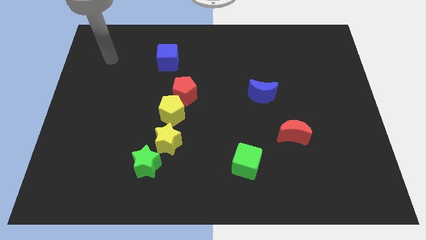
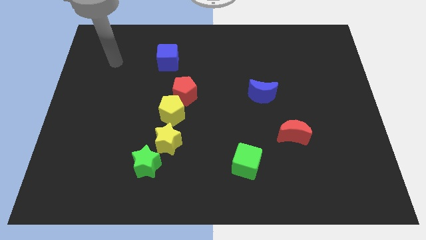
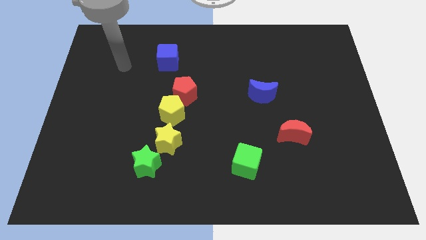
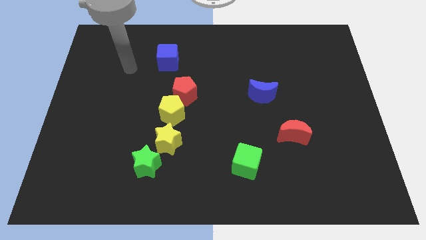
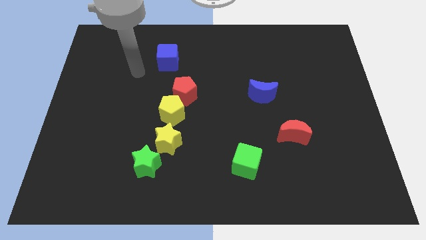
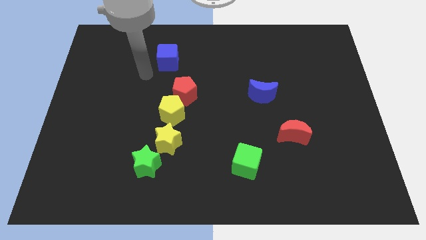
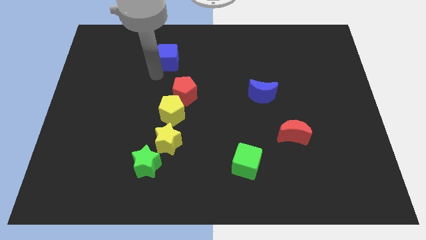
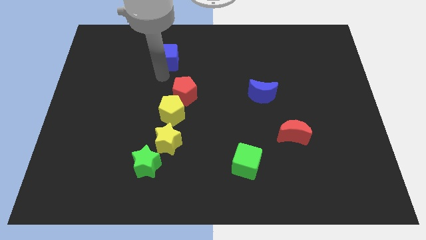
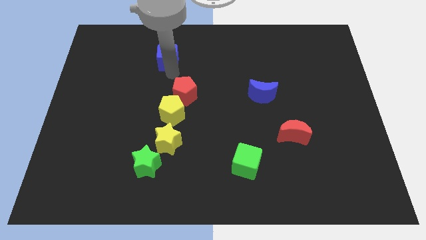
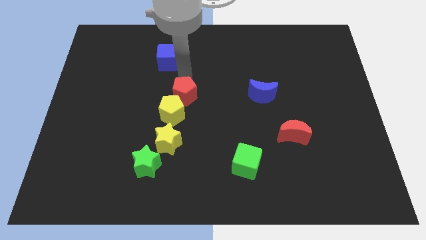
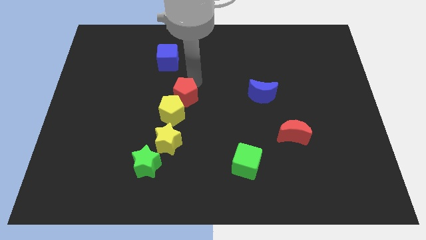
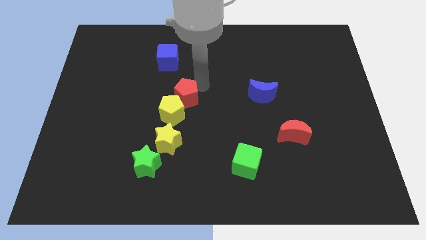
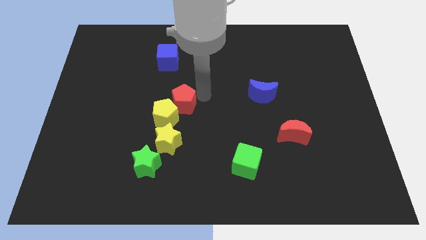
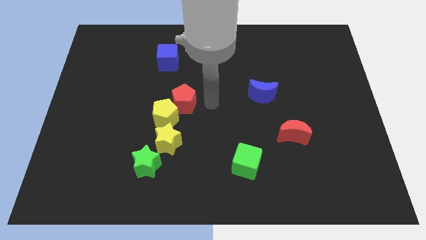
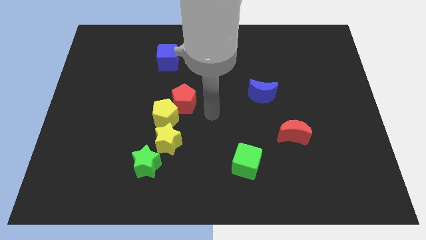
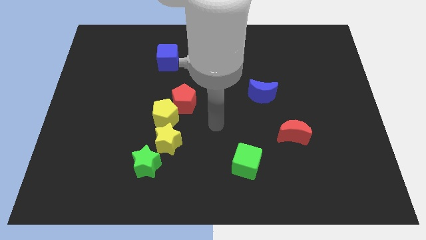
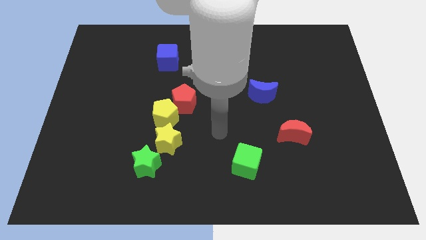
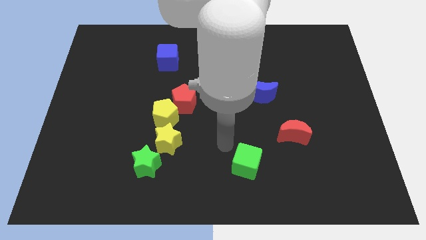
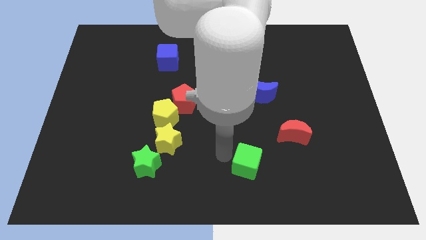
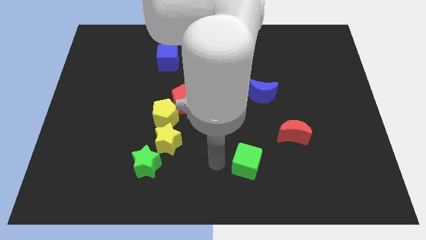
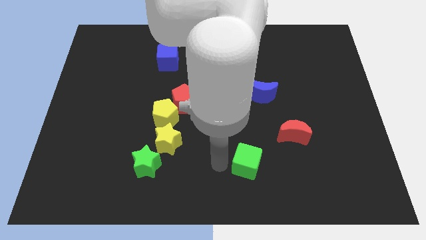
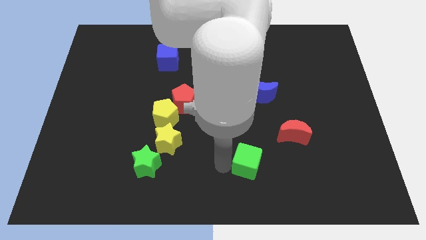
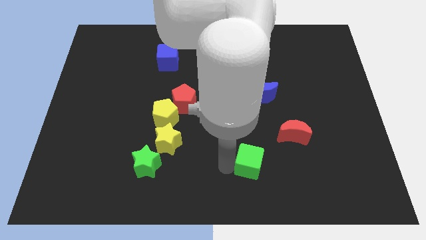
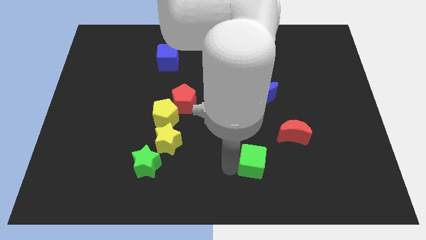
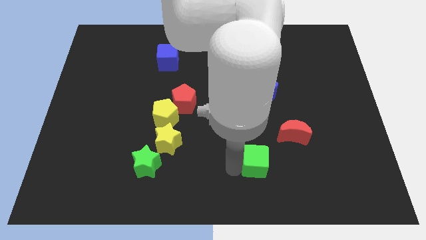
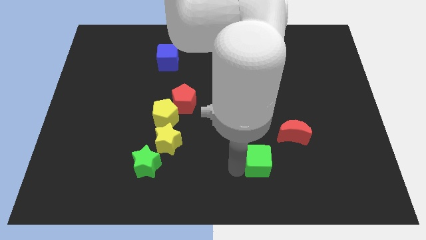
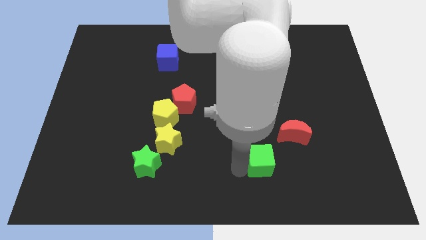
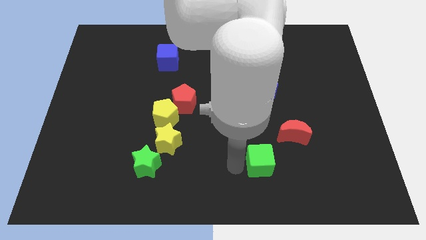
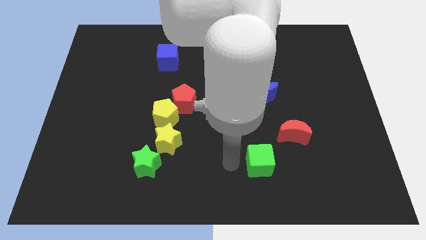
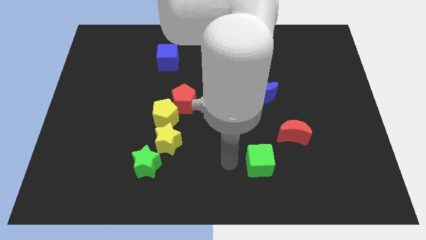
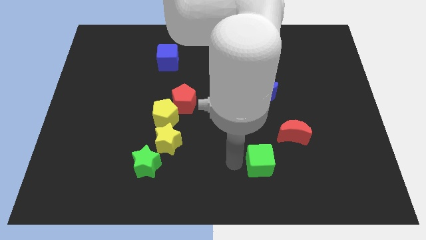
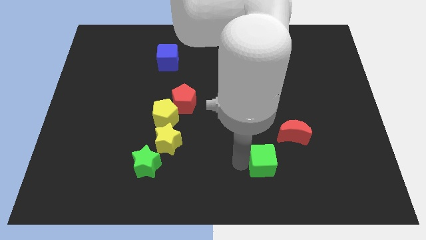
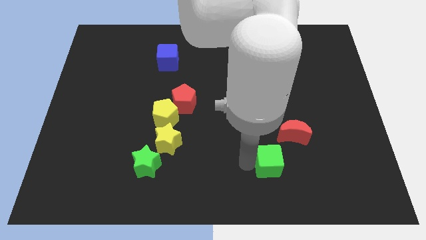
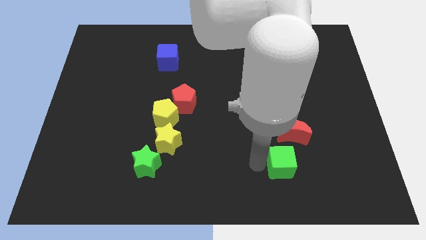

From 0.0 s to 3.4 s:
slightly push the green cube right

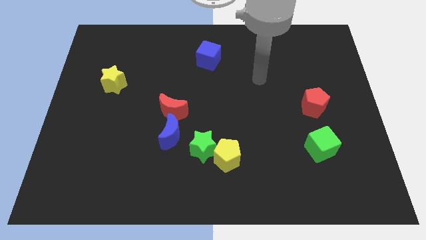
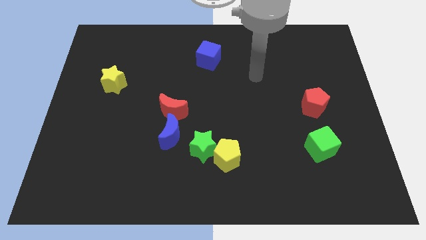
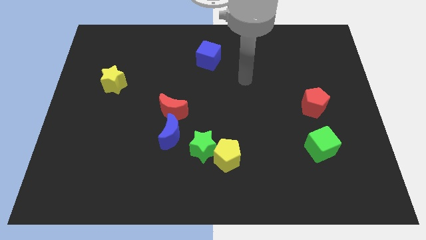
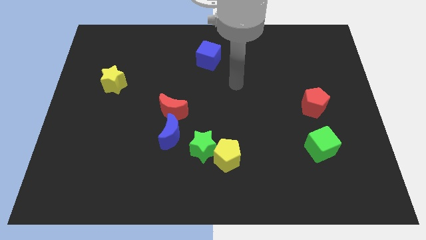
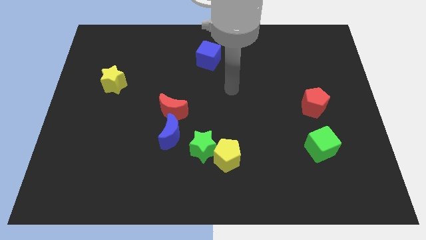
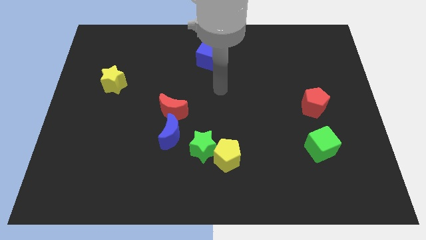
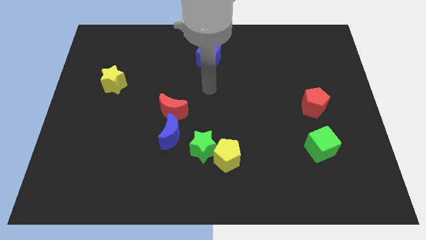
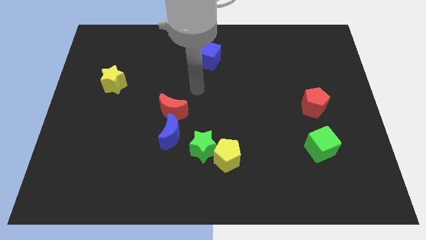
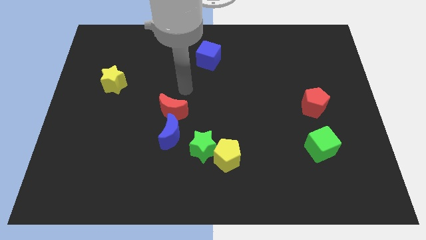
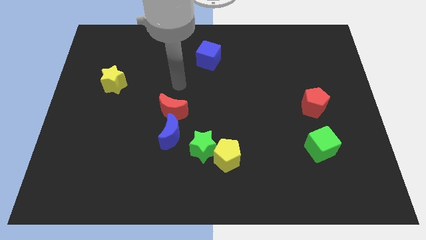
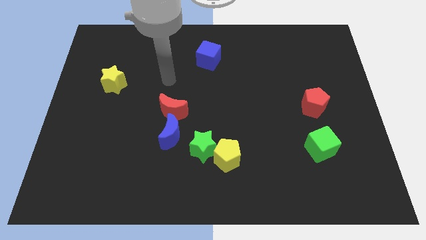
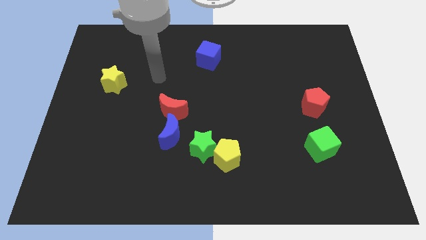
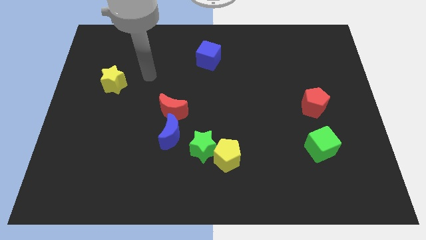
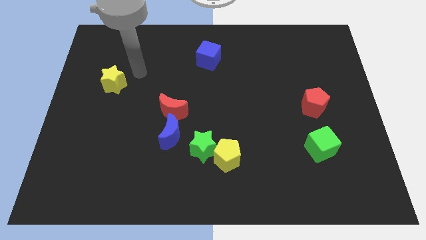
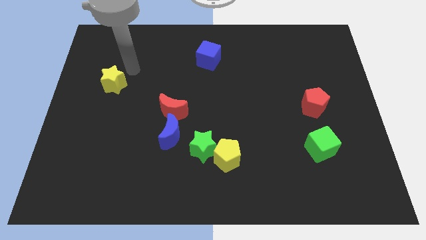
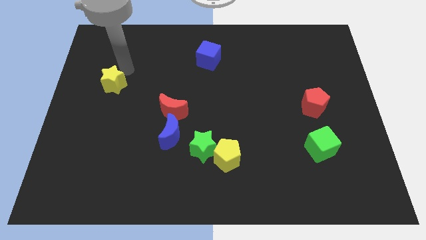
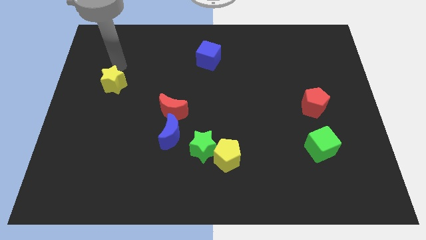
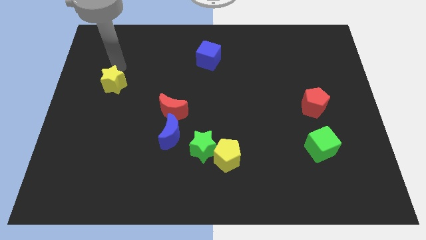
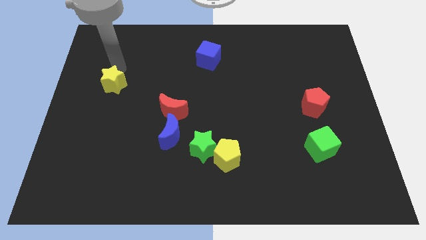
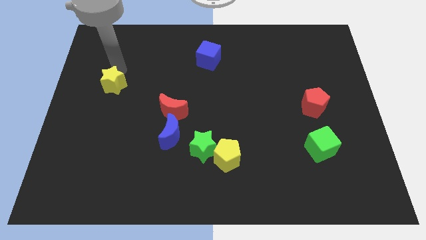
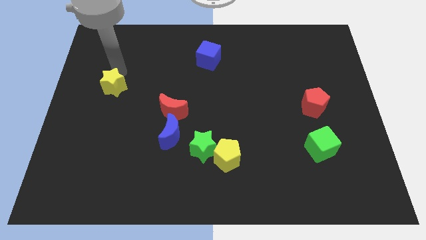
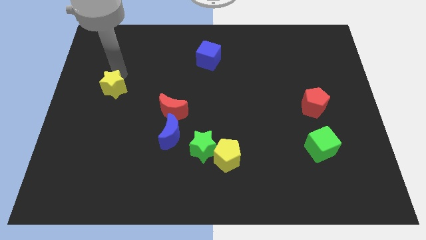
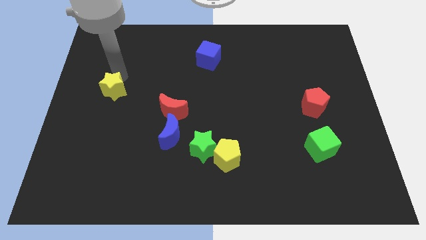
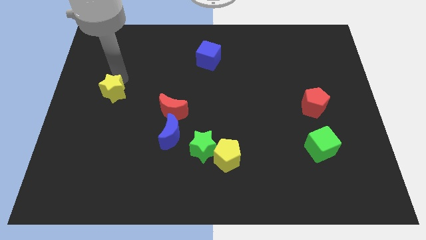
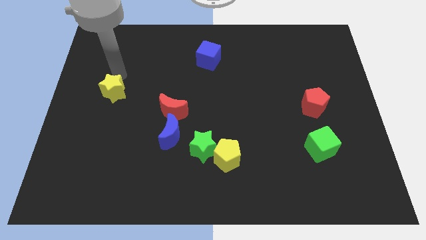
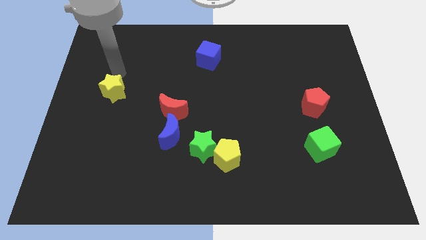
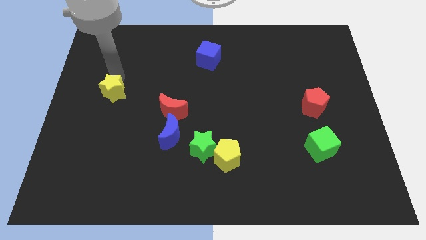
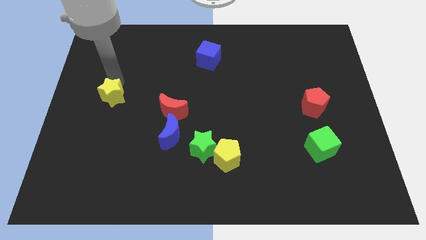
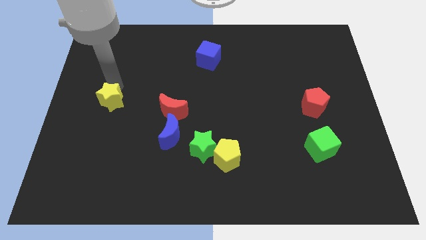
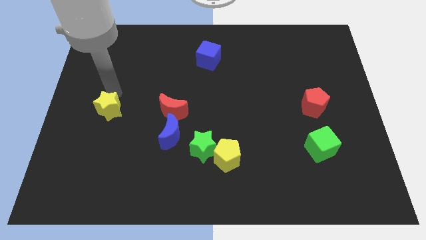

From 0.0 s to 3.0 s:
slightly slide the yellow star downwards

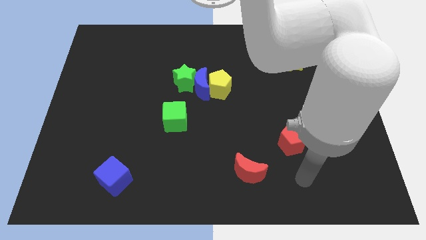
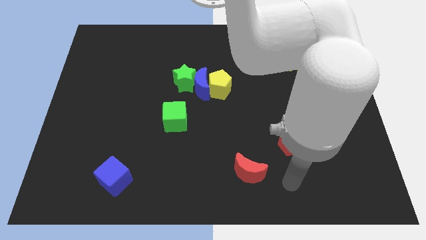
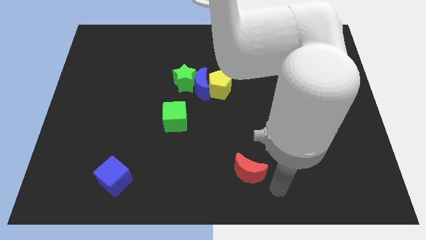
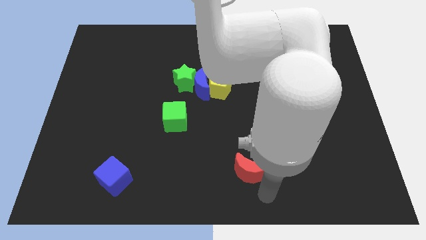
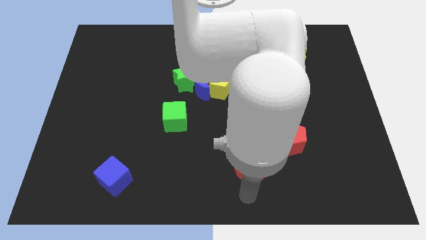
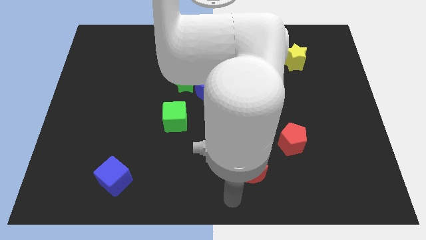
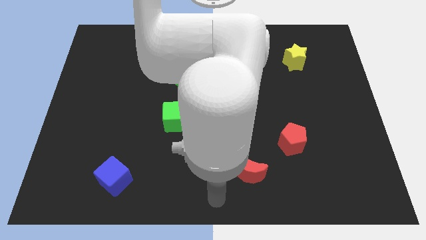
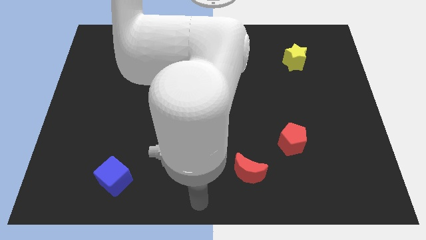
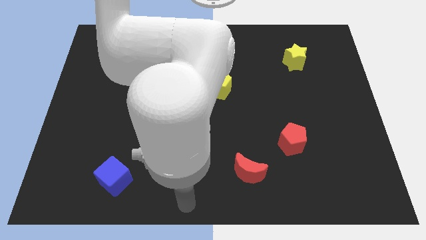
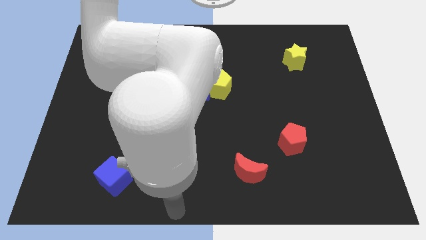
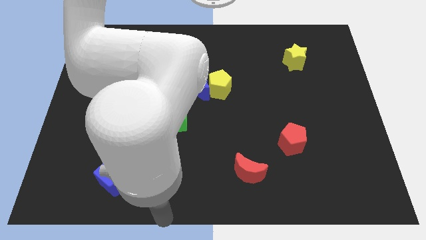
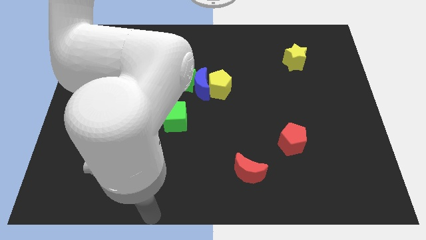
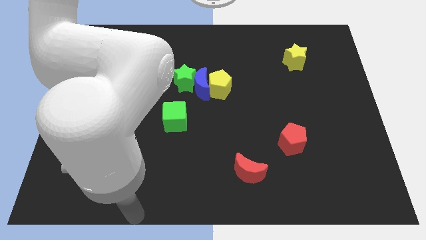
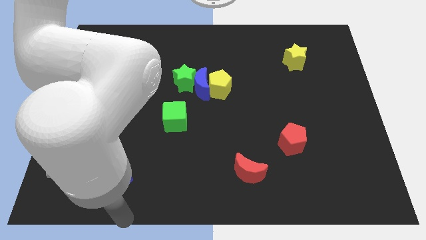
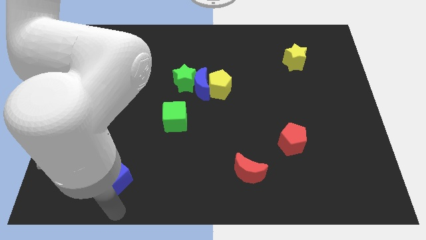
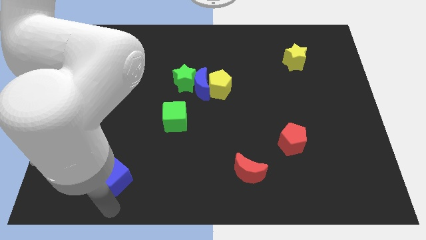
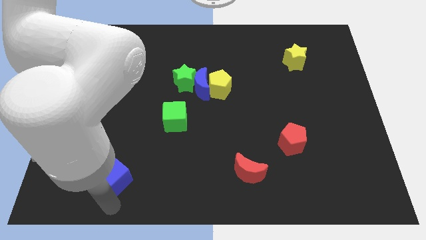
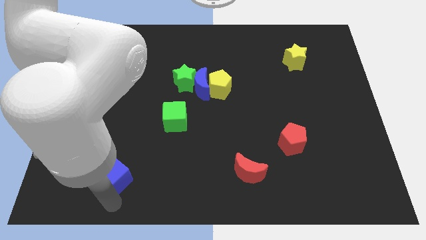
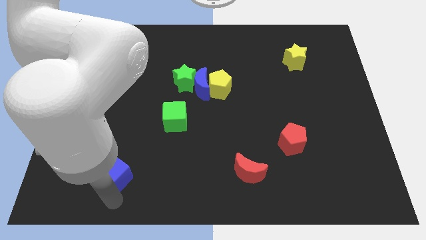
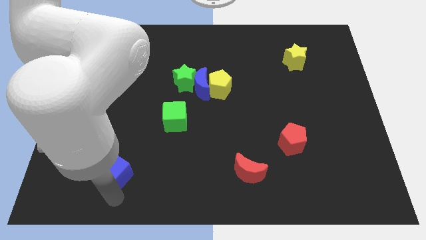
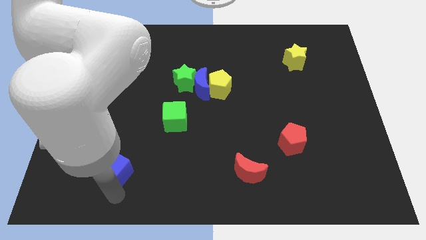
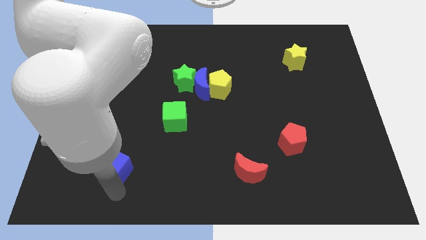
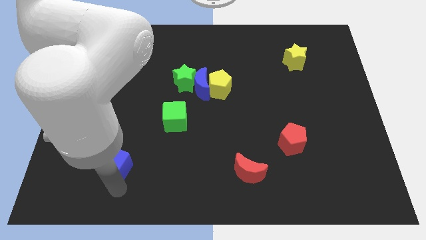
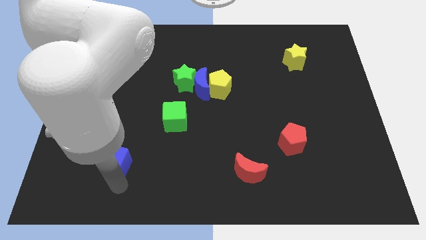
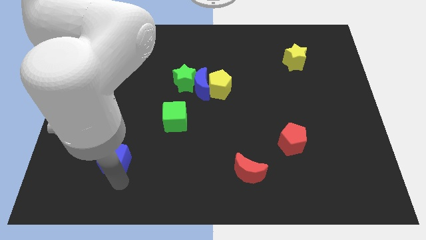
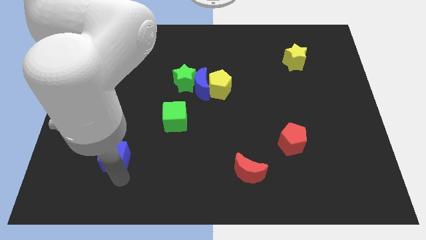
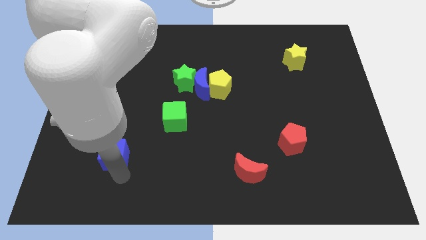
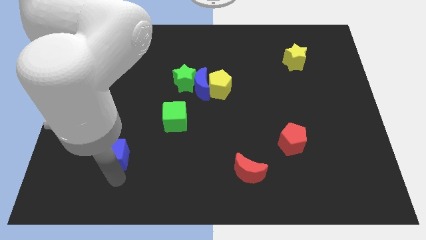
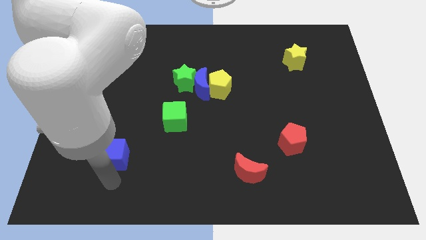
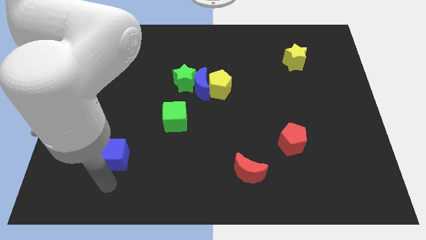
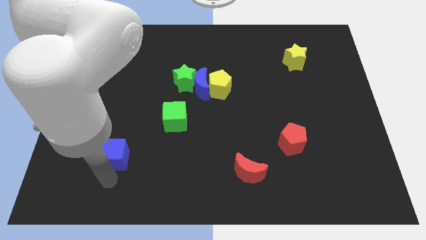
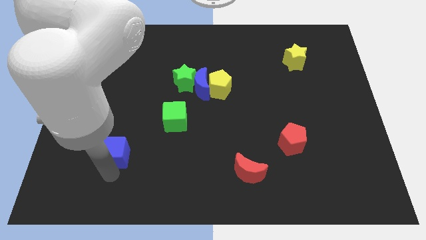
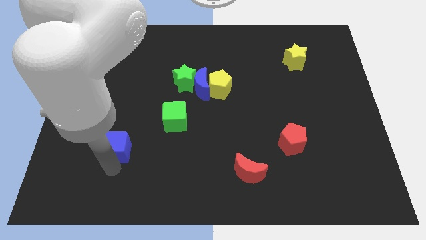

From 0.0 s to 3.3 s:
push the blue cube up a little bit
